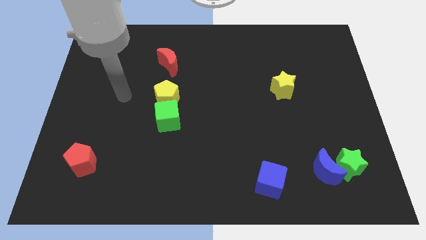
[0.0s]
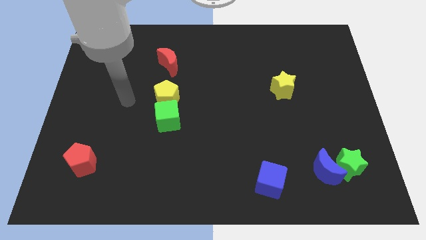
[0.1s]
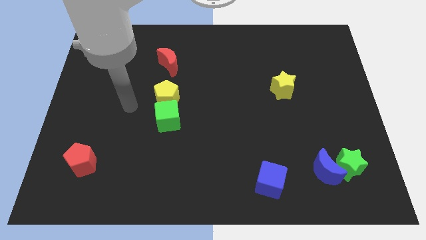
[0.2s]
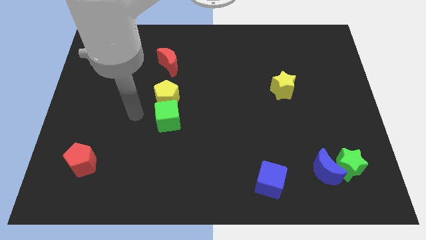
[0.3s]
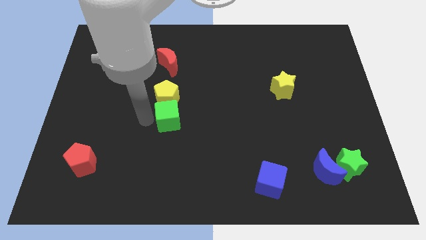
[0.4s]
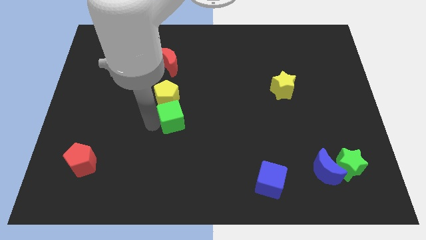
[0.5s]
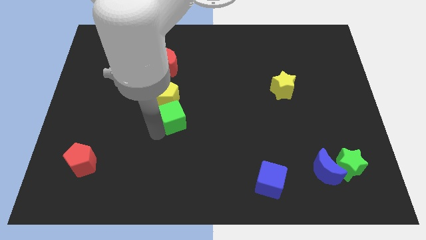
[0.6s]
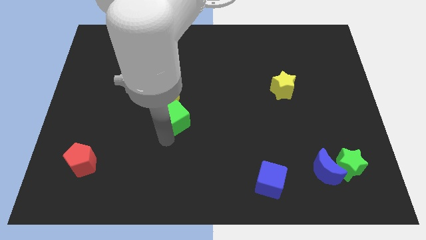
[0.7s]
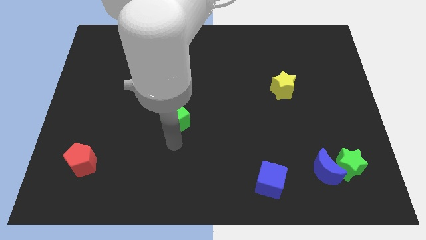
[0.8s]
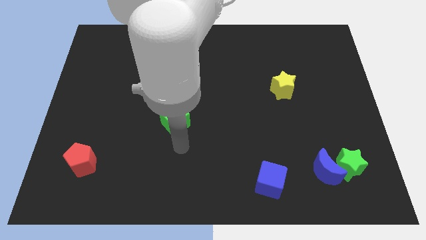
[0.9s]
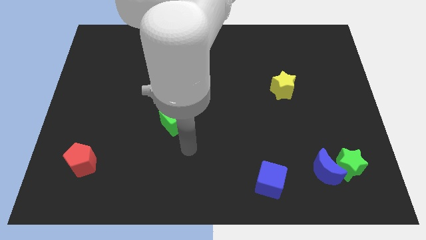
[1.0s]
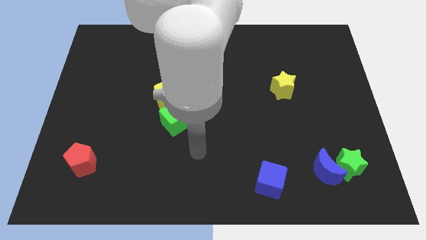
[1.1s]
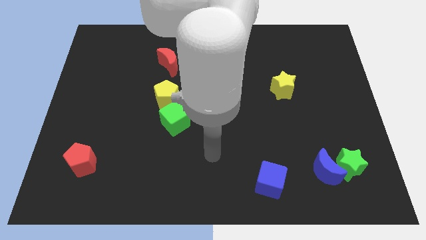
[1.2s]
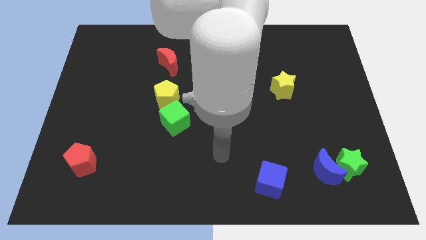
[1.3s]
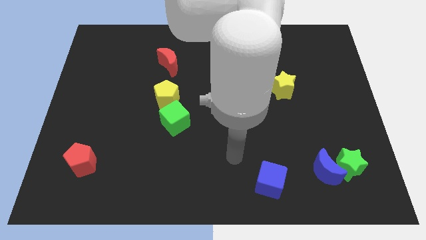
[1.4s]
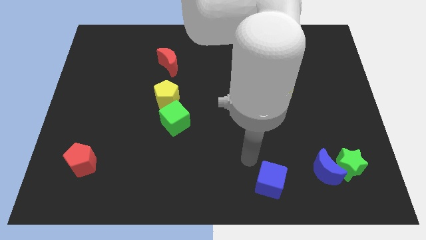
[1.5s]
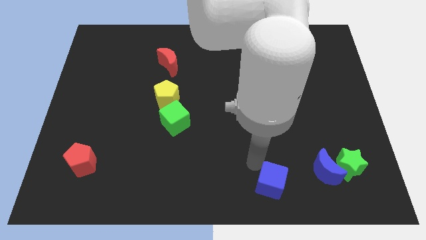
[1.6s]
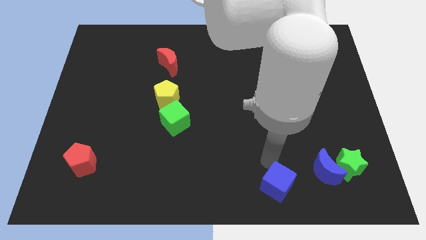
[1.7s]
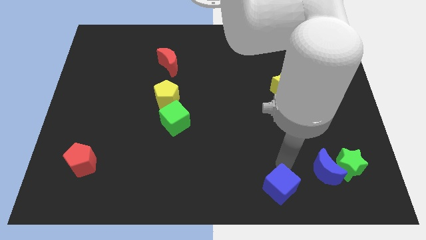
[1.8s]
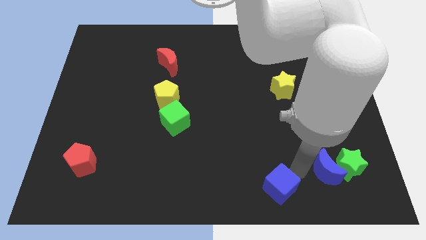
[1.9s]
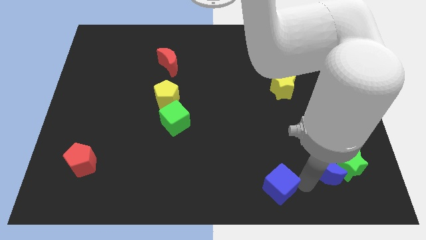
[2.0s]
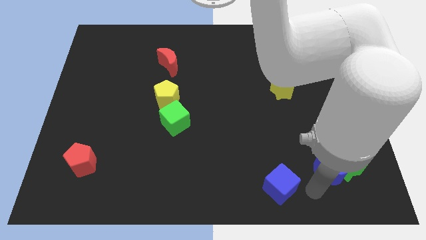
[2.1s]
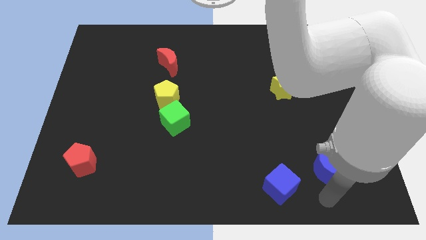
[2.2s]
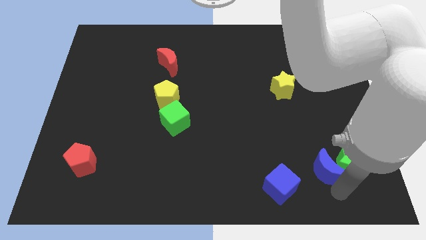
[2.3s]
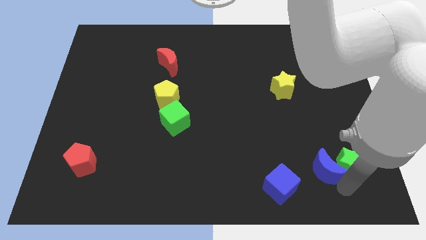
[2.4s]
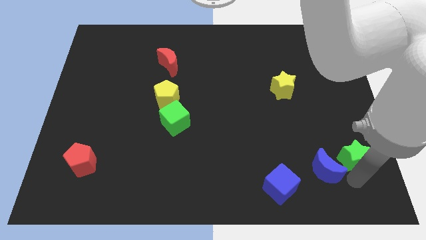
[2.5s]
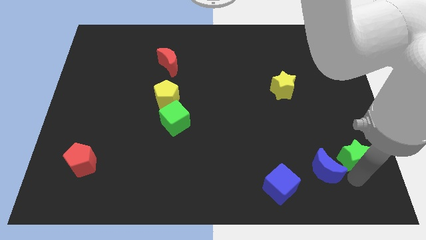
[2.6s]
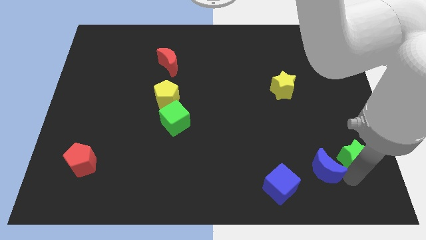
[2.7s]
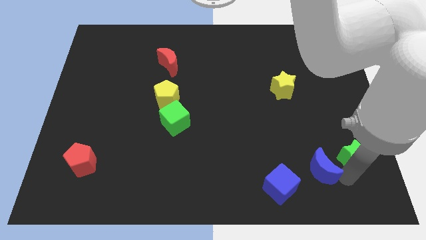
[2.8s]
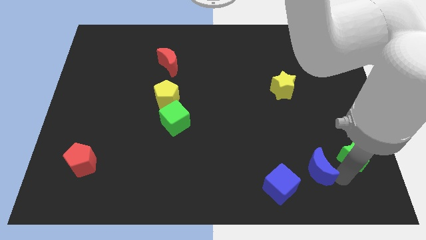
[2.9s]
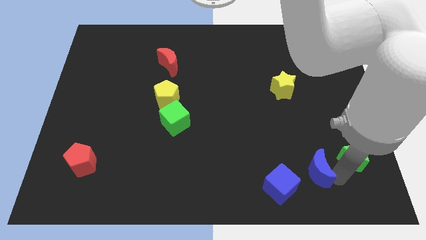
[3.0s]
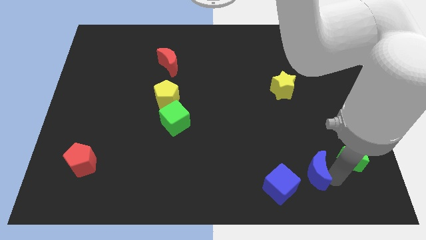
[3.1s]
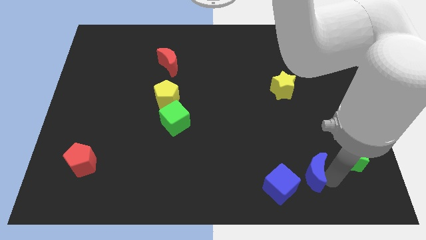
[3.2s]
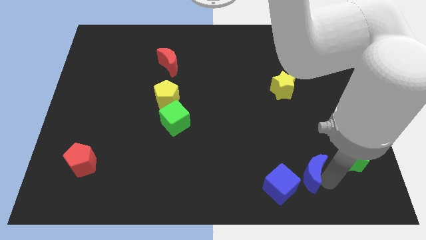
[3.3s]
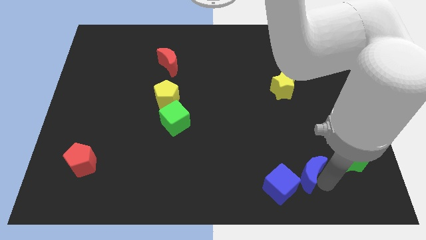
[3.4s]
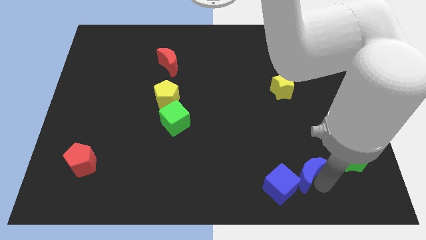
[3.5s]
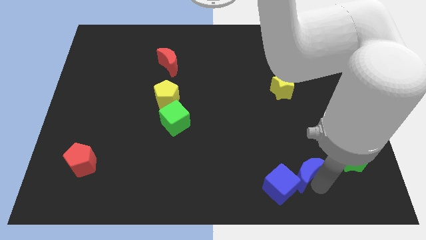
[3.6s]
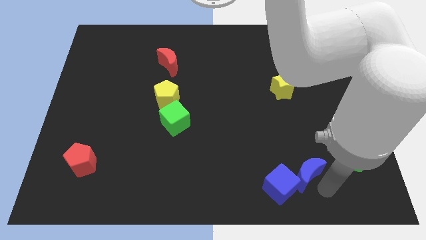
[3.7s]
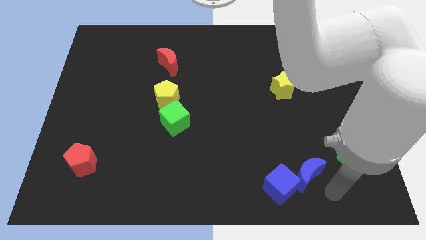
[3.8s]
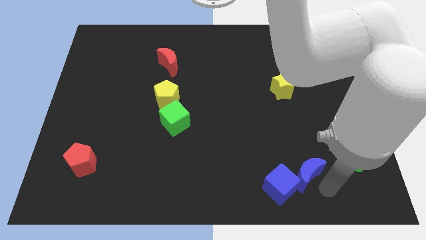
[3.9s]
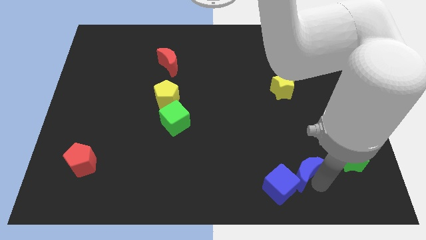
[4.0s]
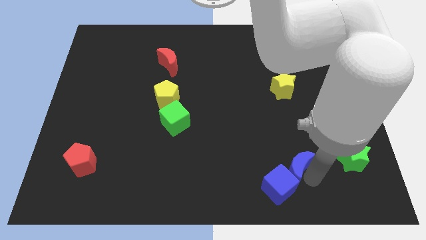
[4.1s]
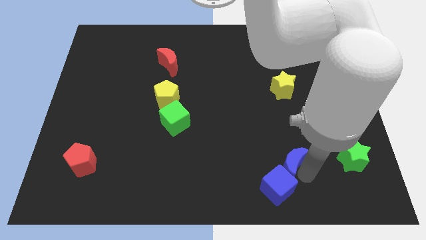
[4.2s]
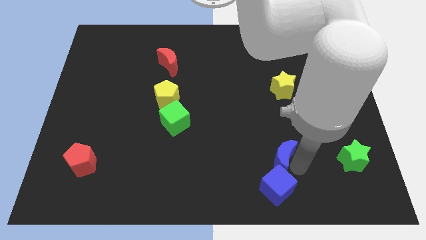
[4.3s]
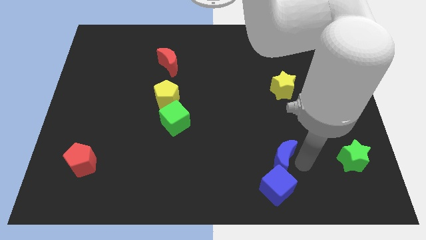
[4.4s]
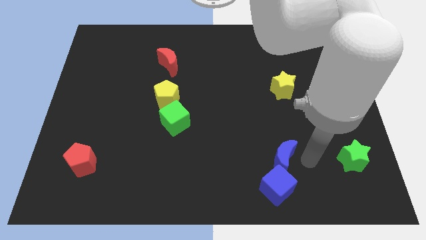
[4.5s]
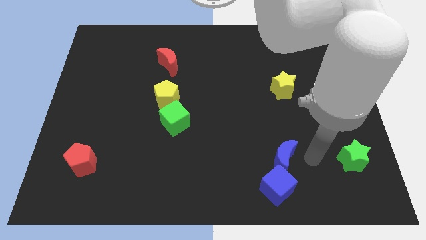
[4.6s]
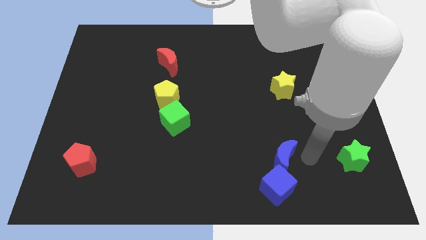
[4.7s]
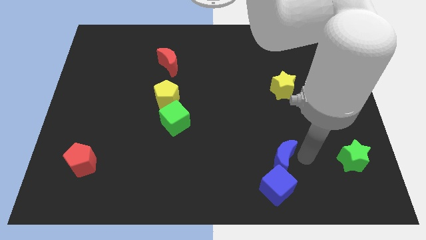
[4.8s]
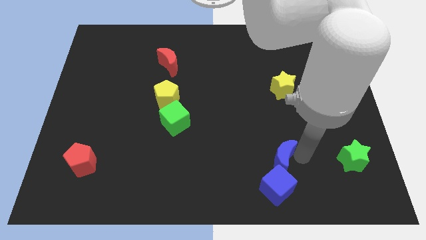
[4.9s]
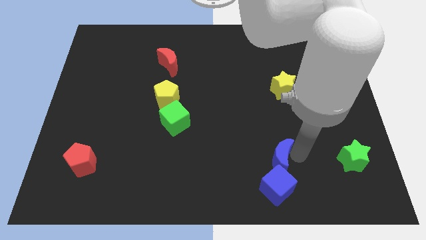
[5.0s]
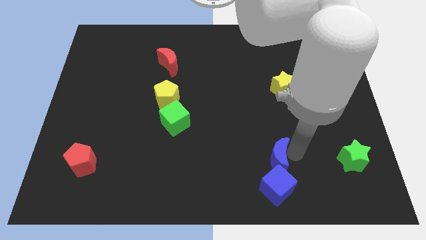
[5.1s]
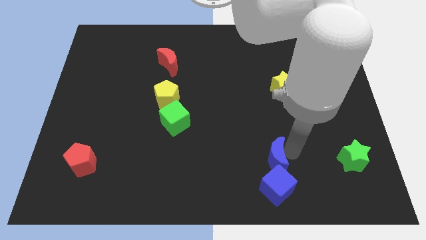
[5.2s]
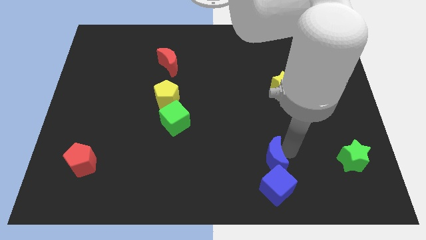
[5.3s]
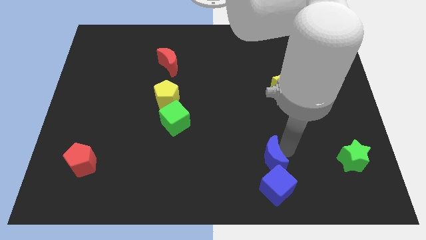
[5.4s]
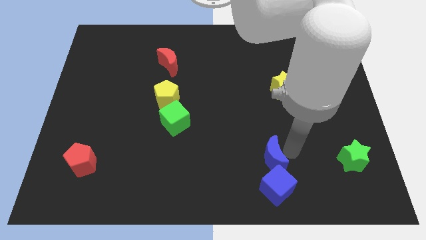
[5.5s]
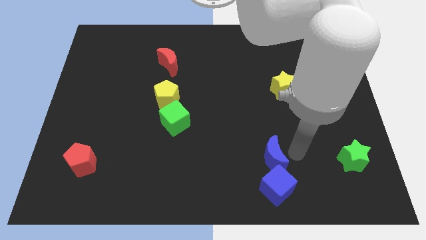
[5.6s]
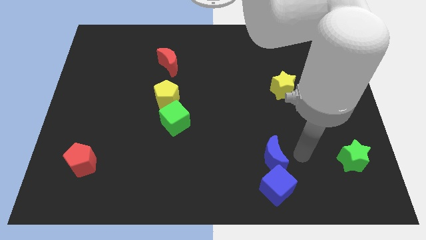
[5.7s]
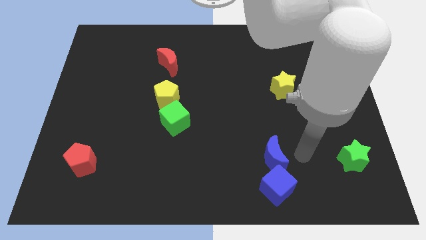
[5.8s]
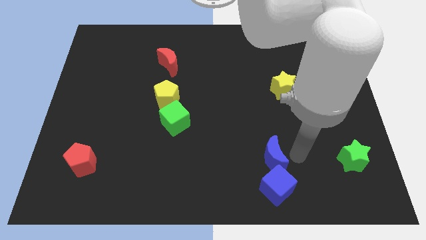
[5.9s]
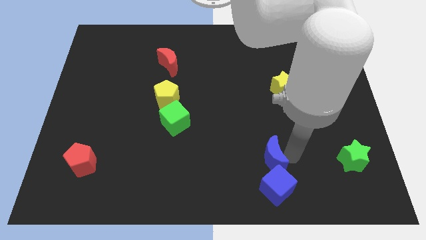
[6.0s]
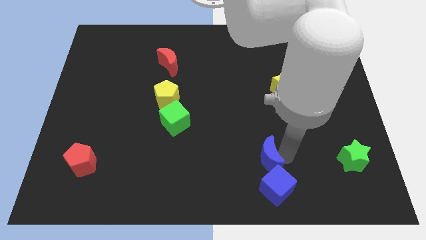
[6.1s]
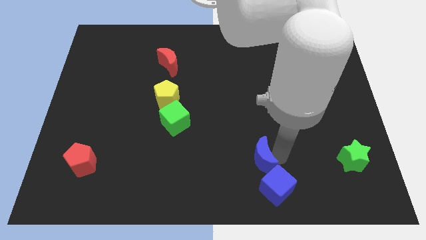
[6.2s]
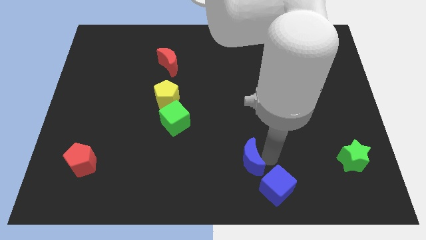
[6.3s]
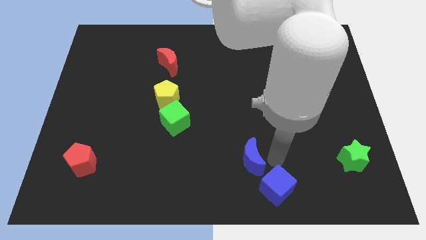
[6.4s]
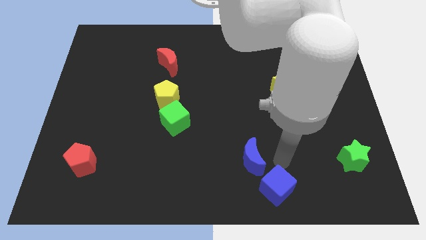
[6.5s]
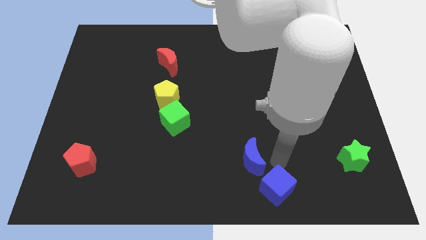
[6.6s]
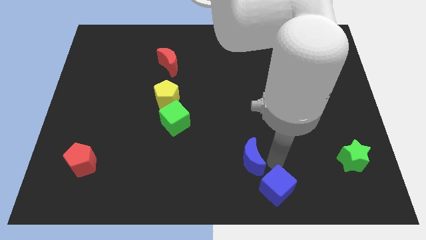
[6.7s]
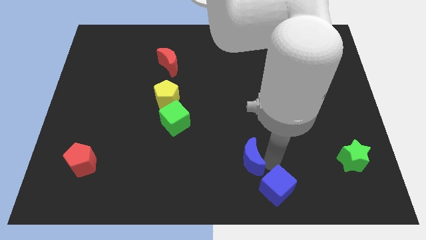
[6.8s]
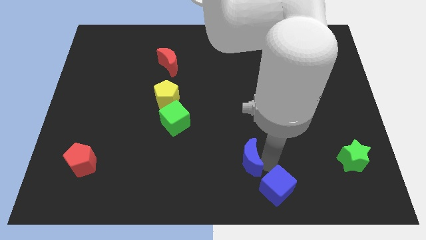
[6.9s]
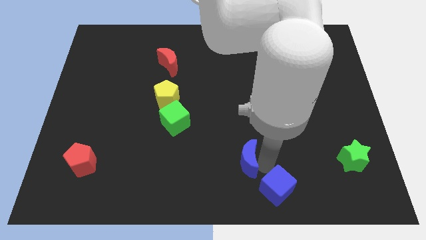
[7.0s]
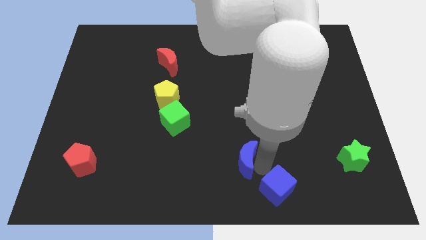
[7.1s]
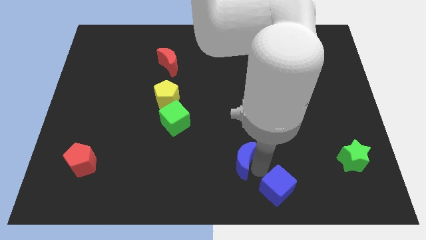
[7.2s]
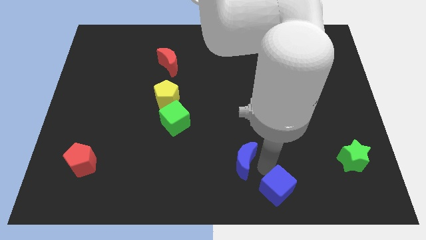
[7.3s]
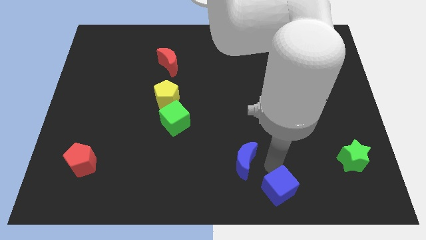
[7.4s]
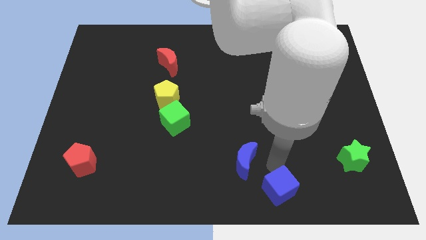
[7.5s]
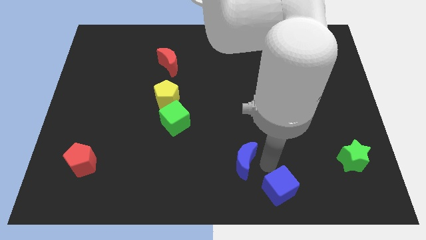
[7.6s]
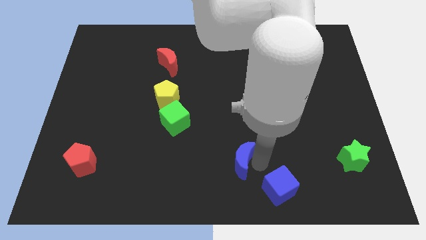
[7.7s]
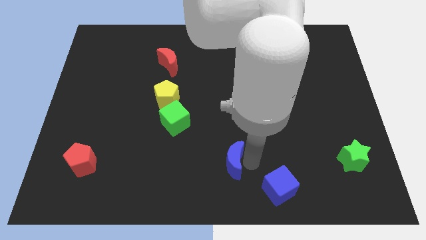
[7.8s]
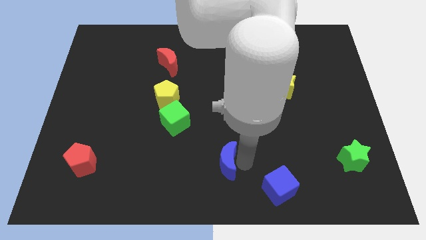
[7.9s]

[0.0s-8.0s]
push the blue moon to the left

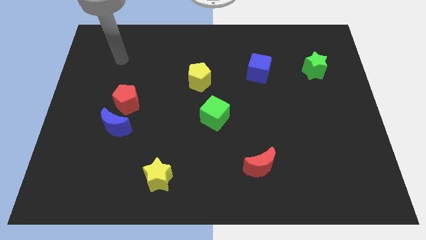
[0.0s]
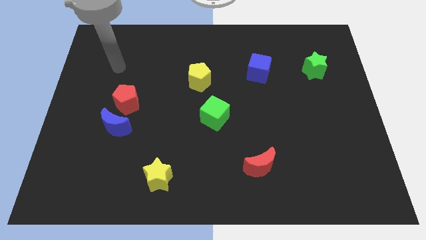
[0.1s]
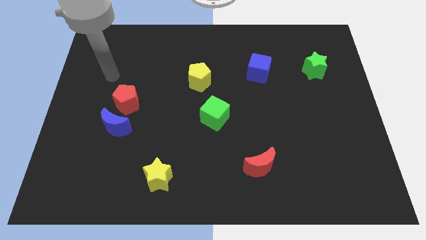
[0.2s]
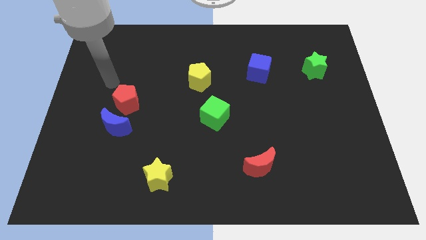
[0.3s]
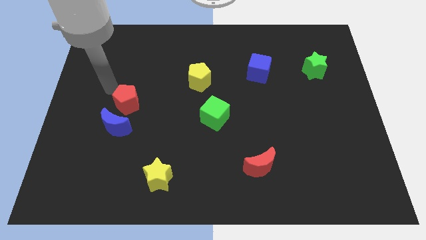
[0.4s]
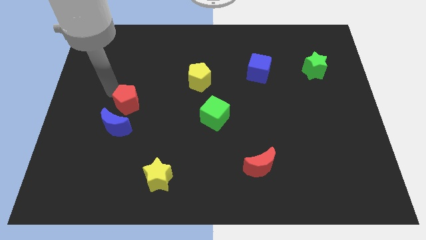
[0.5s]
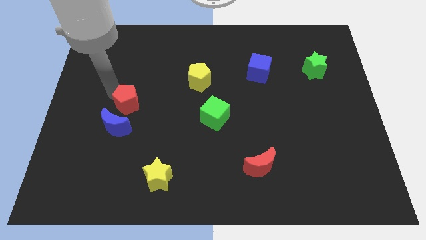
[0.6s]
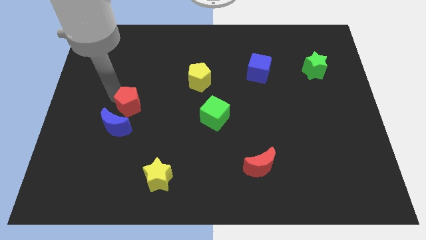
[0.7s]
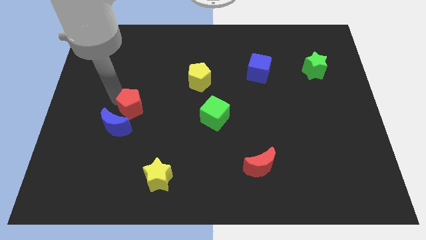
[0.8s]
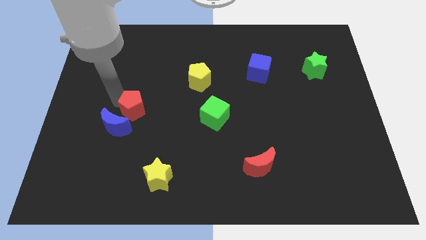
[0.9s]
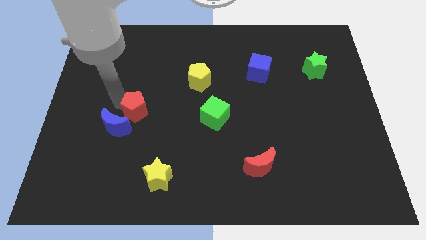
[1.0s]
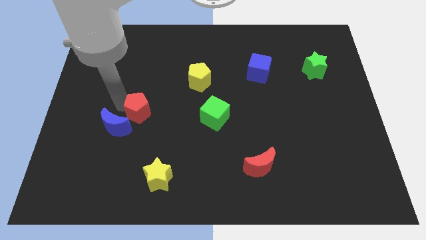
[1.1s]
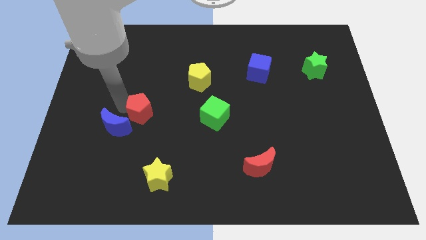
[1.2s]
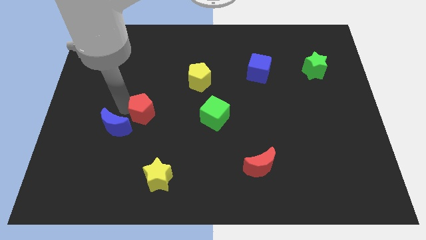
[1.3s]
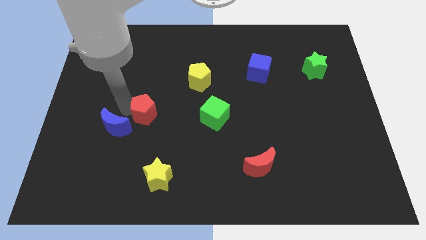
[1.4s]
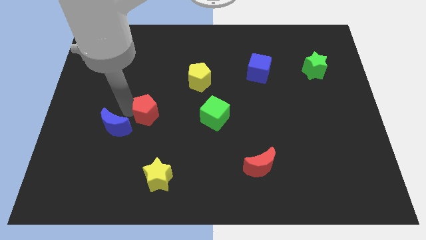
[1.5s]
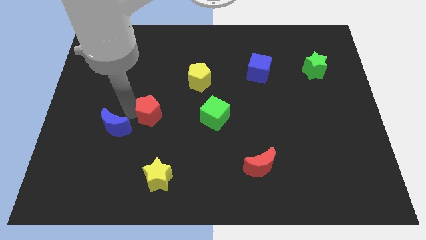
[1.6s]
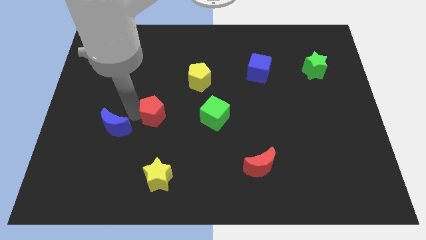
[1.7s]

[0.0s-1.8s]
push the red pentagon a little diagonally downwards and right
